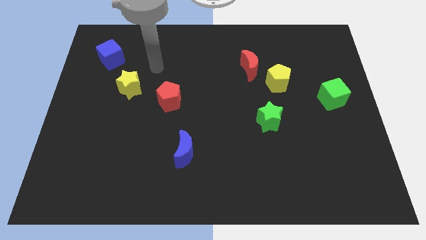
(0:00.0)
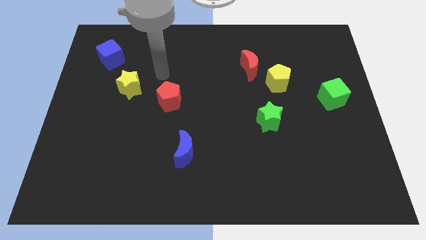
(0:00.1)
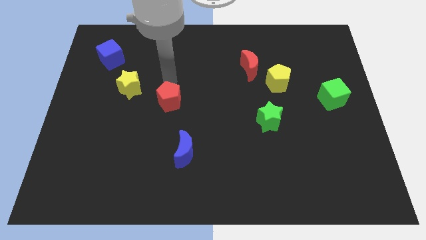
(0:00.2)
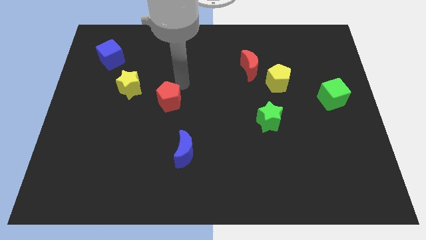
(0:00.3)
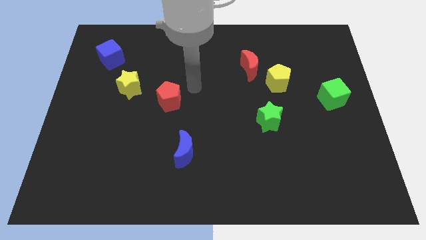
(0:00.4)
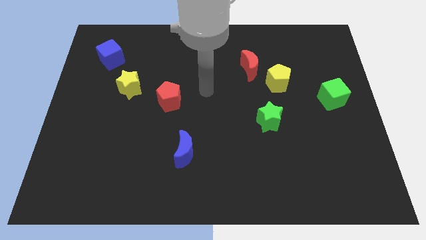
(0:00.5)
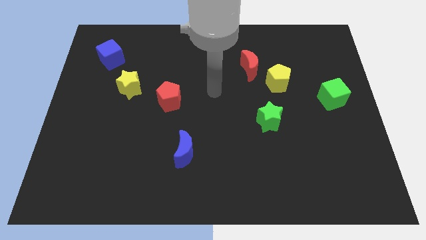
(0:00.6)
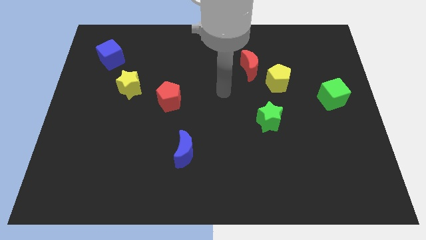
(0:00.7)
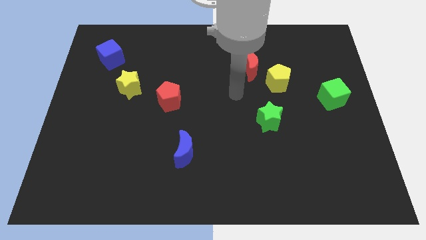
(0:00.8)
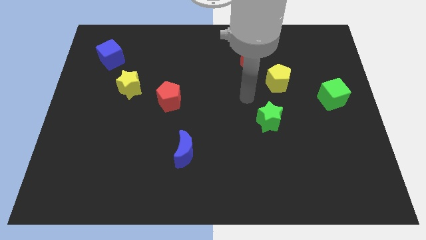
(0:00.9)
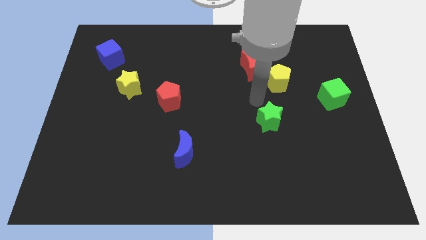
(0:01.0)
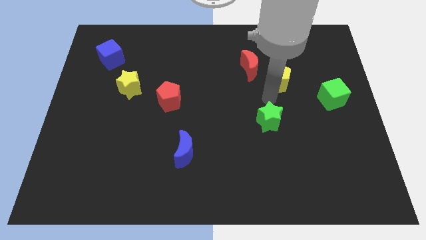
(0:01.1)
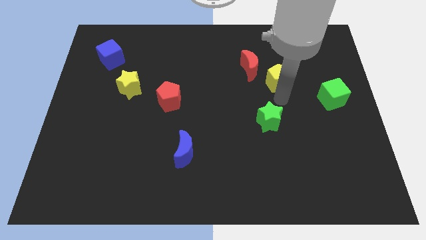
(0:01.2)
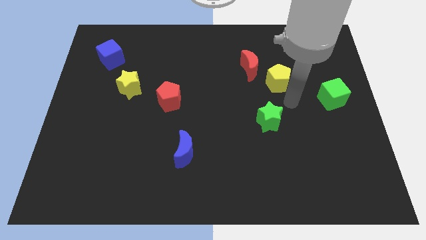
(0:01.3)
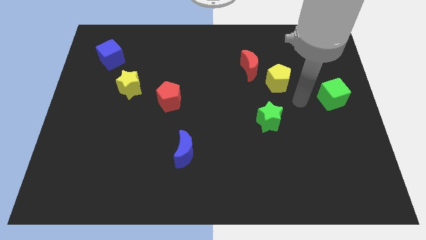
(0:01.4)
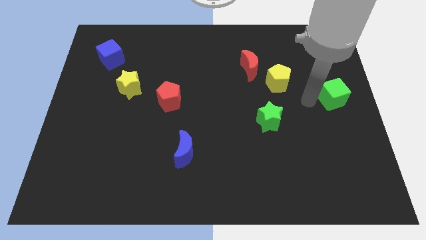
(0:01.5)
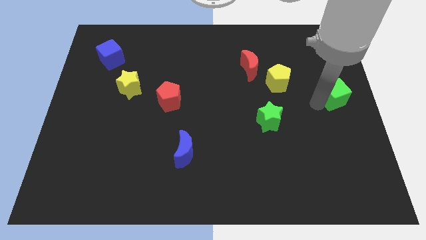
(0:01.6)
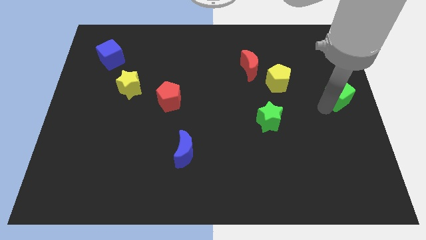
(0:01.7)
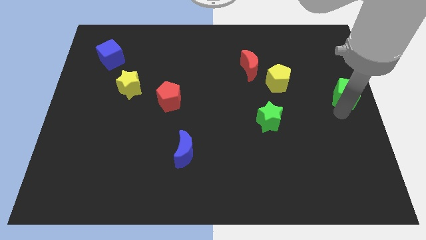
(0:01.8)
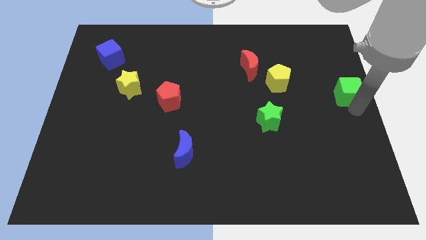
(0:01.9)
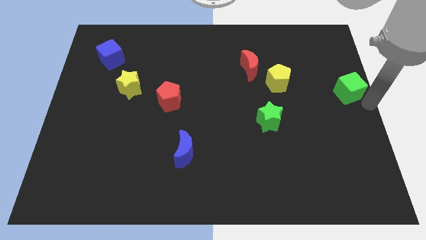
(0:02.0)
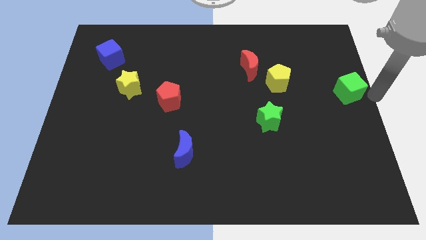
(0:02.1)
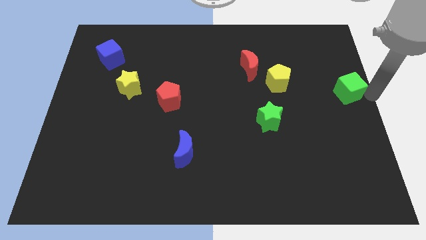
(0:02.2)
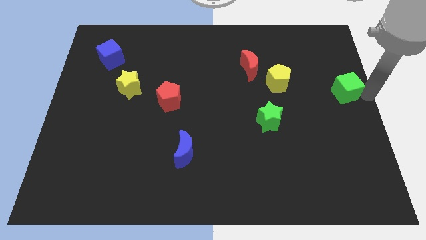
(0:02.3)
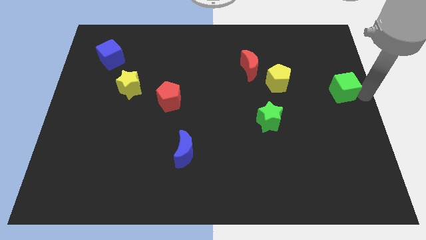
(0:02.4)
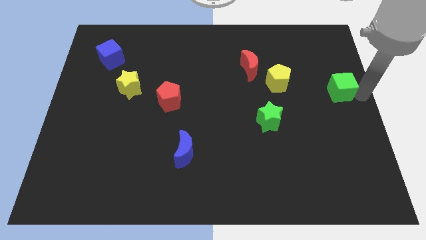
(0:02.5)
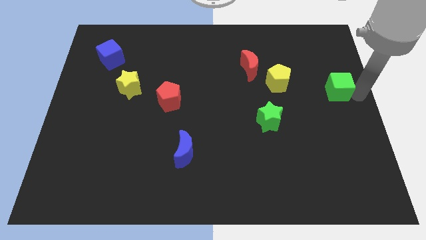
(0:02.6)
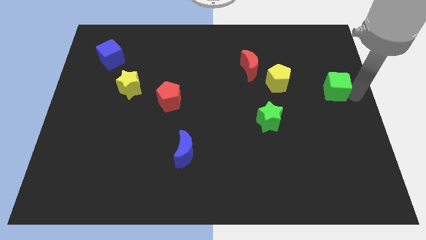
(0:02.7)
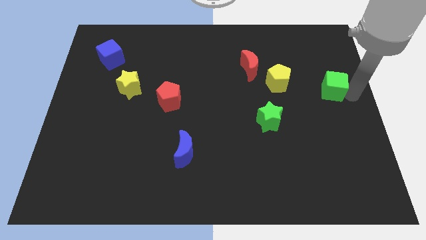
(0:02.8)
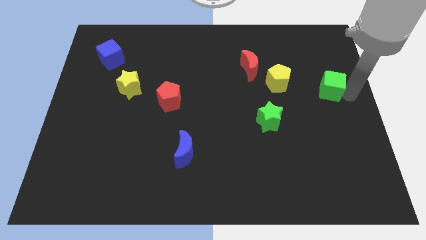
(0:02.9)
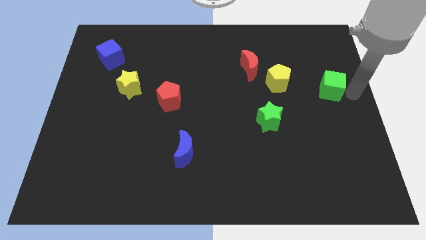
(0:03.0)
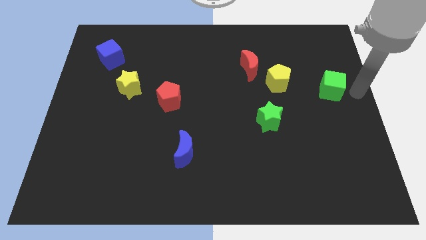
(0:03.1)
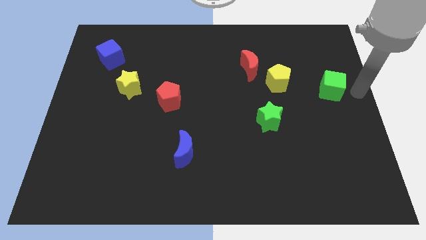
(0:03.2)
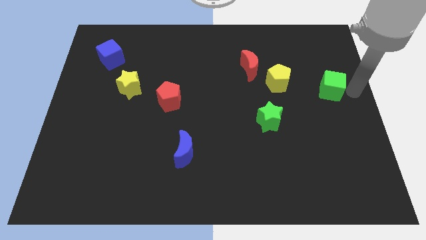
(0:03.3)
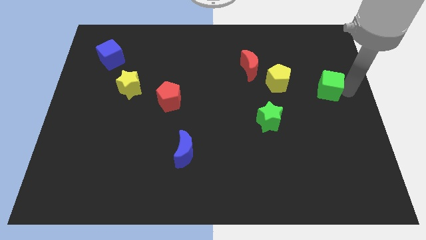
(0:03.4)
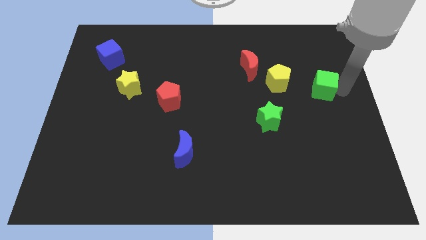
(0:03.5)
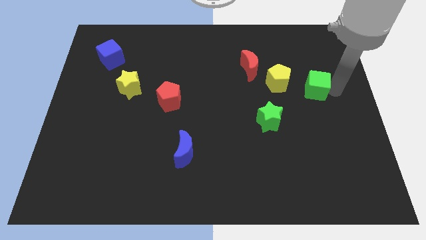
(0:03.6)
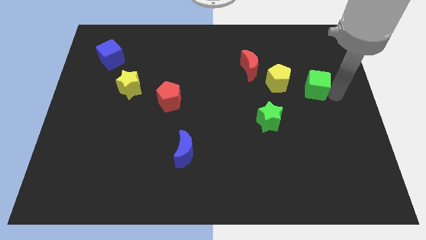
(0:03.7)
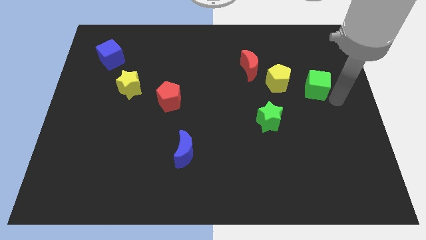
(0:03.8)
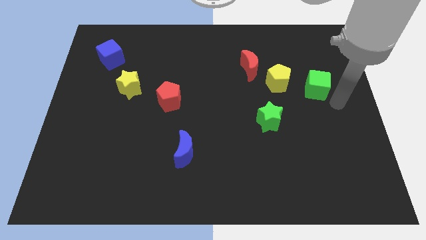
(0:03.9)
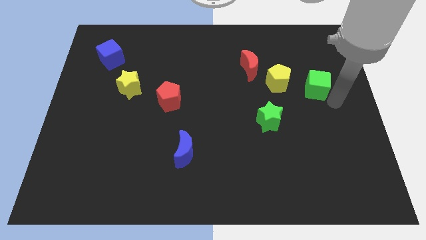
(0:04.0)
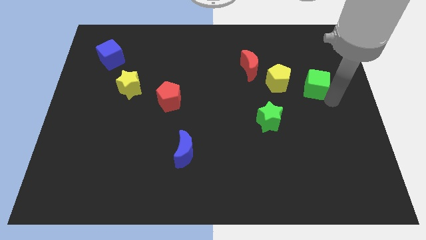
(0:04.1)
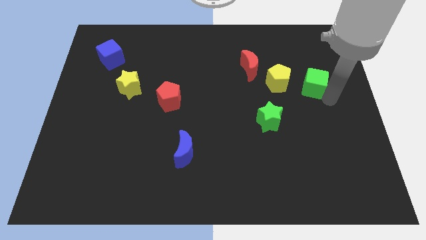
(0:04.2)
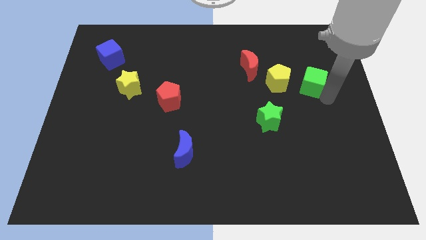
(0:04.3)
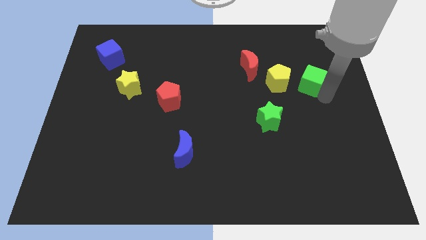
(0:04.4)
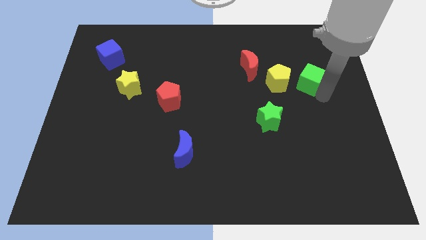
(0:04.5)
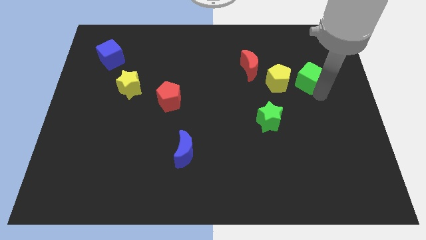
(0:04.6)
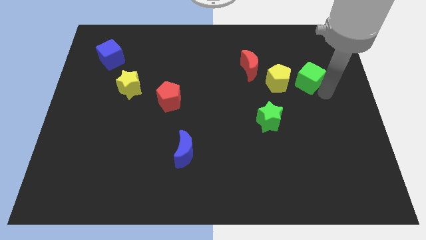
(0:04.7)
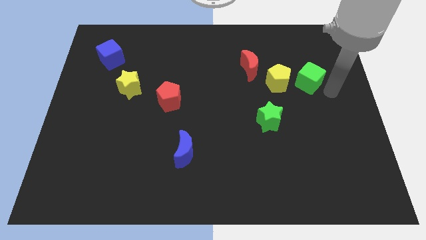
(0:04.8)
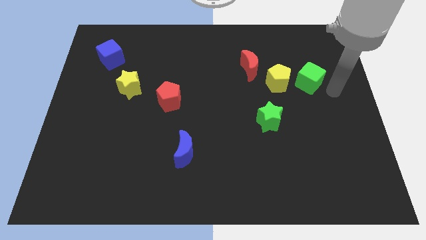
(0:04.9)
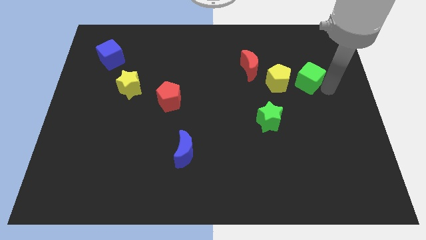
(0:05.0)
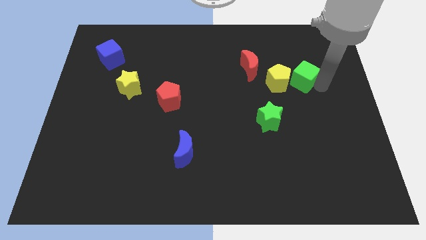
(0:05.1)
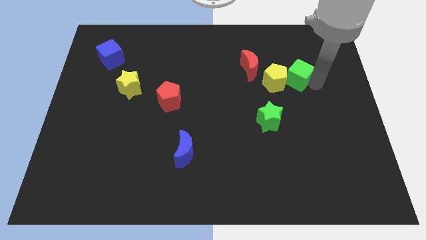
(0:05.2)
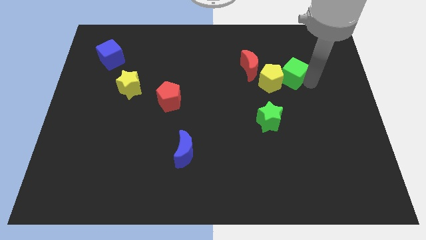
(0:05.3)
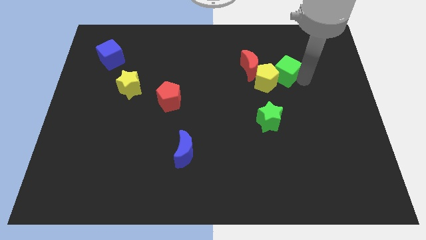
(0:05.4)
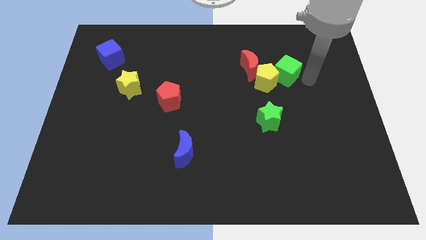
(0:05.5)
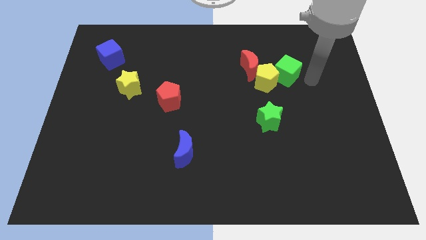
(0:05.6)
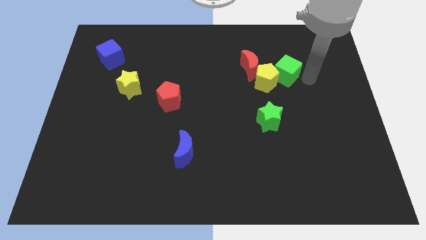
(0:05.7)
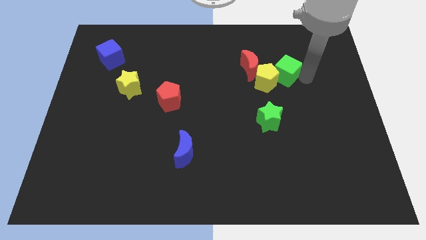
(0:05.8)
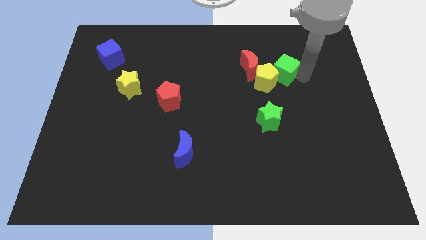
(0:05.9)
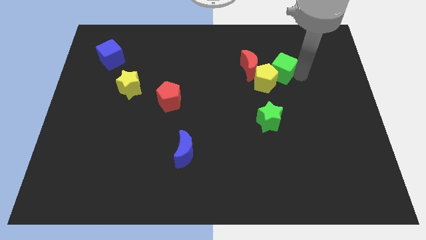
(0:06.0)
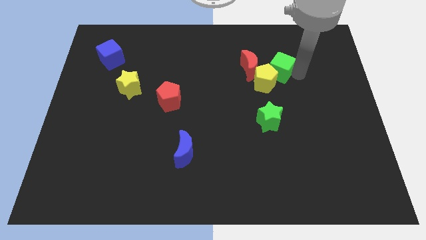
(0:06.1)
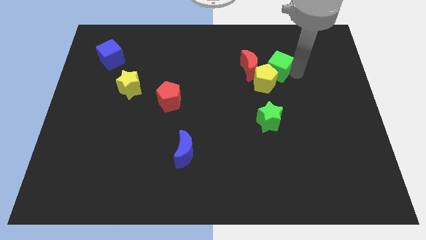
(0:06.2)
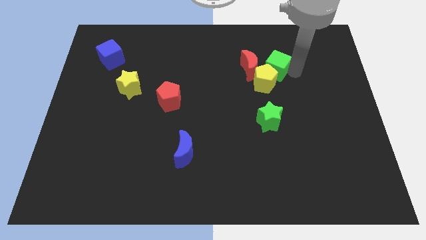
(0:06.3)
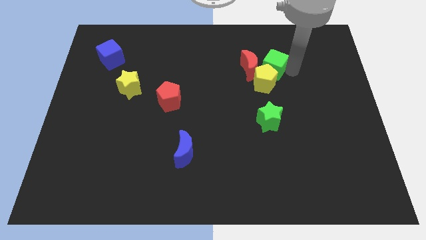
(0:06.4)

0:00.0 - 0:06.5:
push the green cube towards the red moon

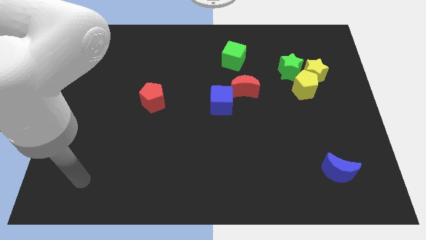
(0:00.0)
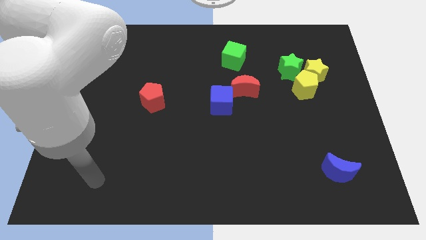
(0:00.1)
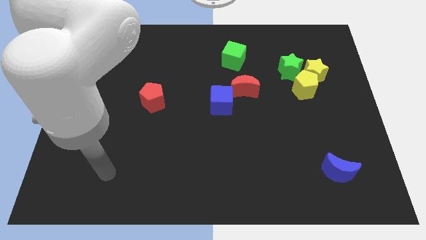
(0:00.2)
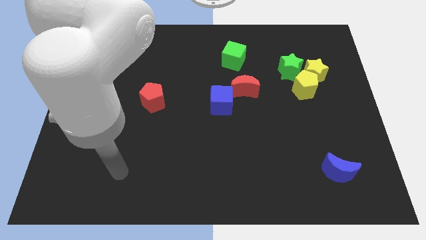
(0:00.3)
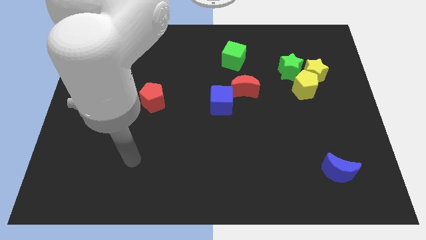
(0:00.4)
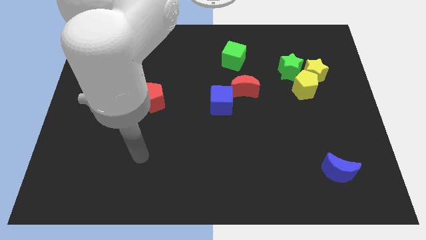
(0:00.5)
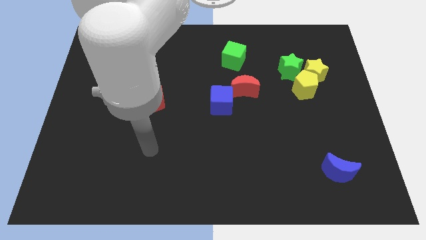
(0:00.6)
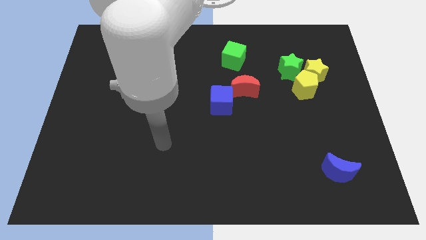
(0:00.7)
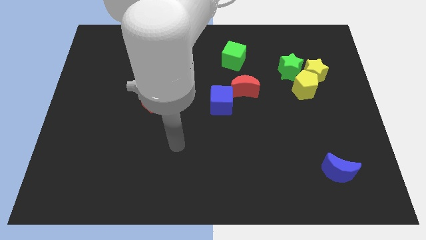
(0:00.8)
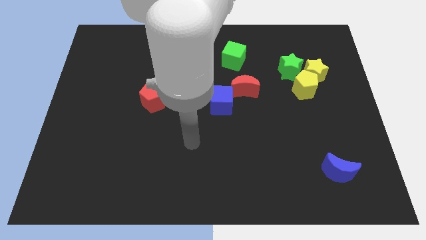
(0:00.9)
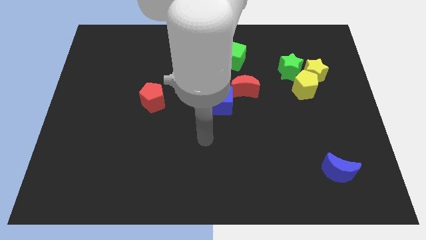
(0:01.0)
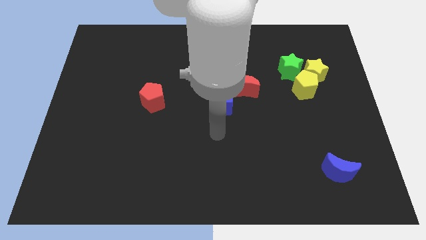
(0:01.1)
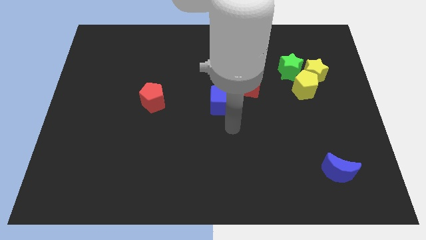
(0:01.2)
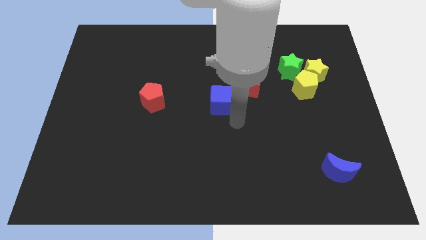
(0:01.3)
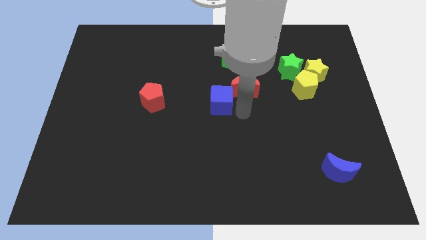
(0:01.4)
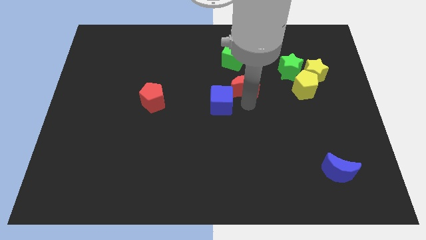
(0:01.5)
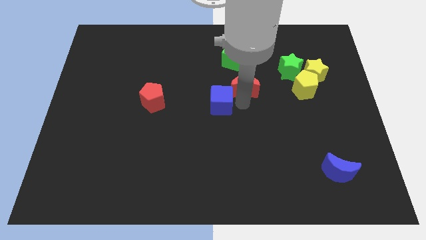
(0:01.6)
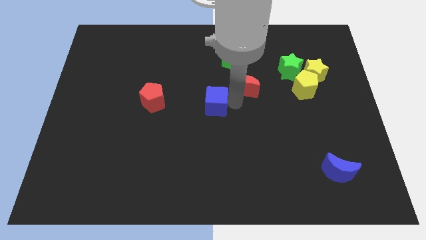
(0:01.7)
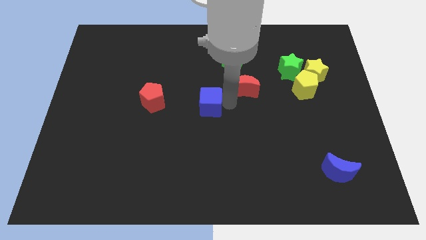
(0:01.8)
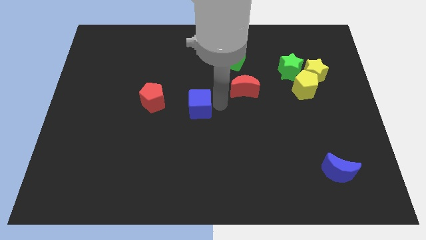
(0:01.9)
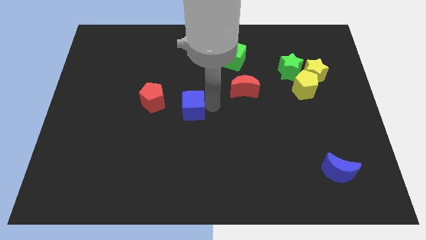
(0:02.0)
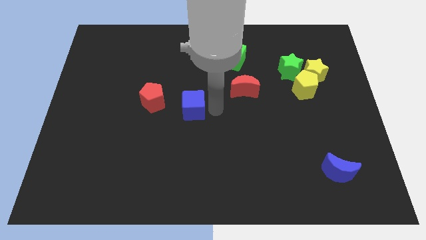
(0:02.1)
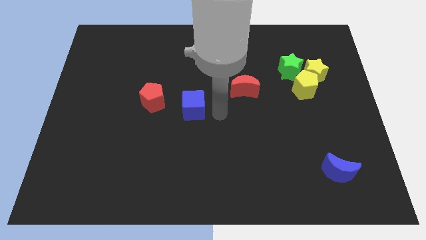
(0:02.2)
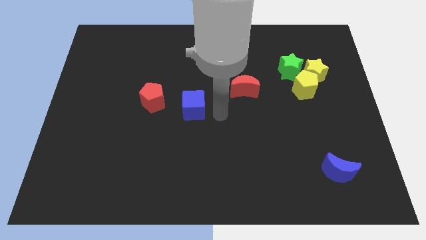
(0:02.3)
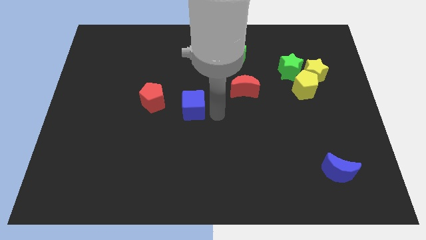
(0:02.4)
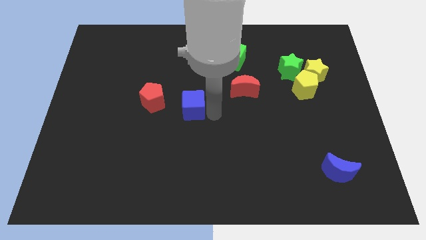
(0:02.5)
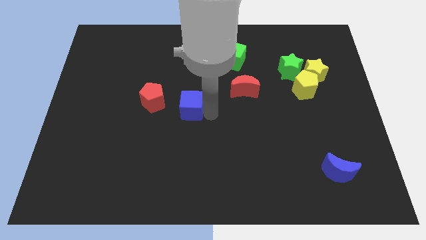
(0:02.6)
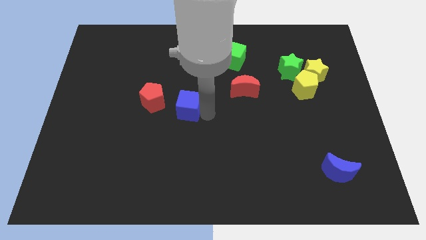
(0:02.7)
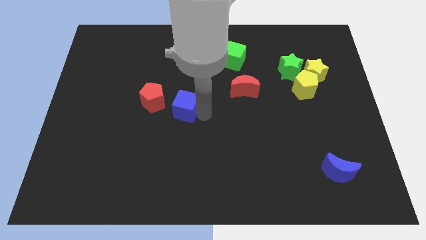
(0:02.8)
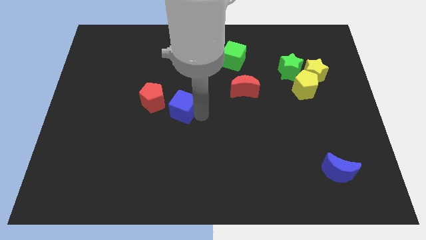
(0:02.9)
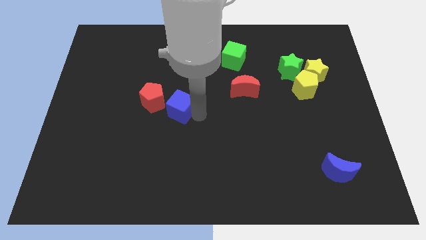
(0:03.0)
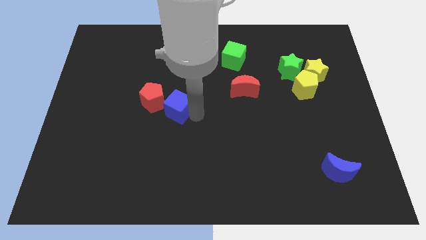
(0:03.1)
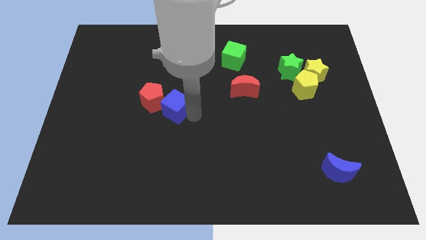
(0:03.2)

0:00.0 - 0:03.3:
put the blue cube towards the red pentagon
